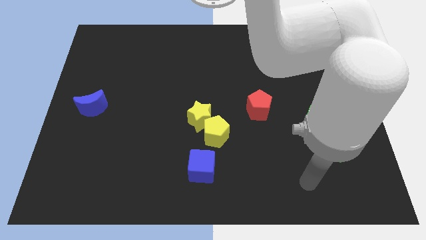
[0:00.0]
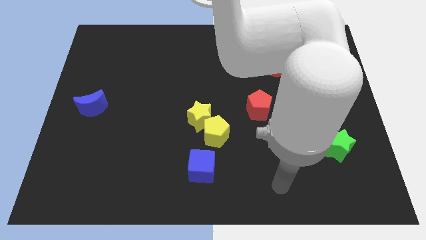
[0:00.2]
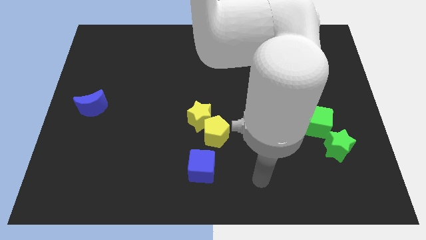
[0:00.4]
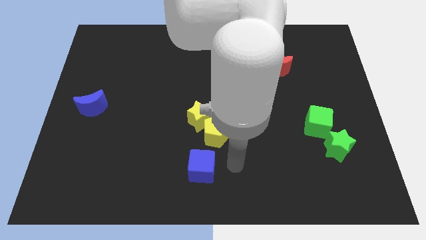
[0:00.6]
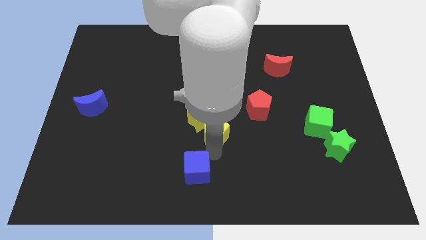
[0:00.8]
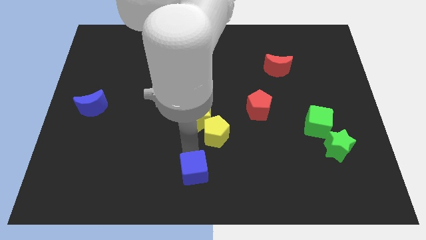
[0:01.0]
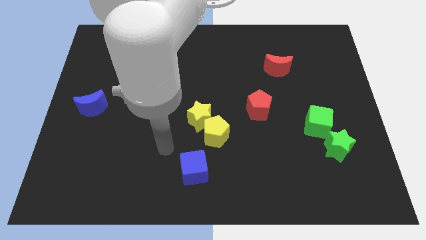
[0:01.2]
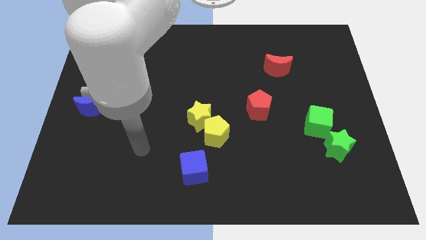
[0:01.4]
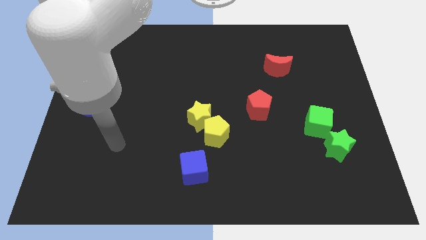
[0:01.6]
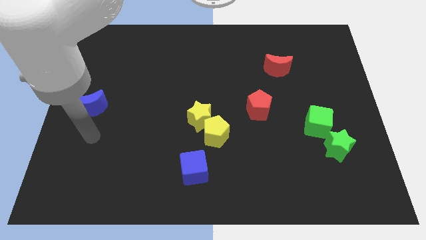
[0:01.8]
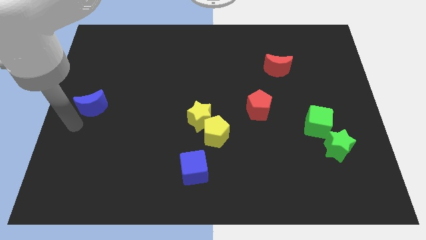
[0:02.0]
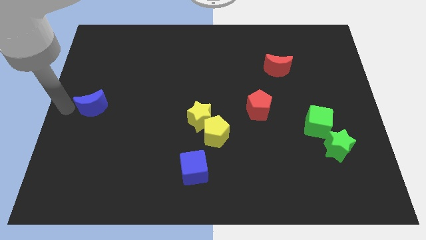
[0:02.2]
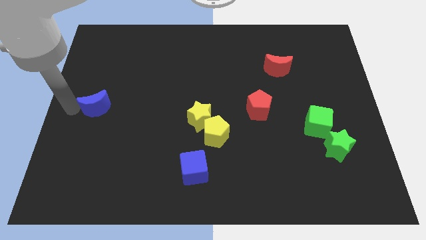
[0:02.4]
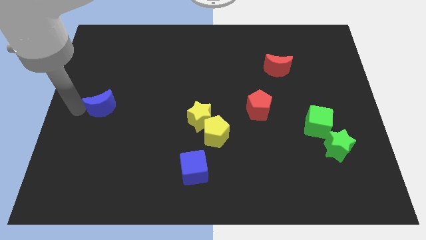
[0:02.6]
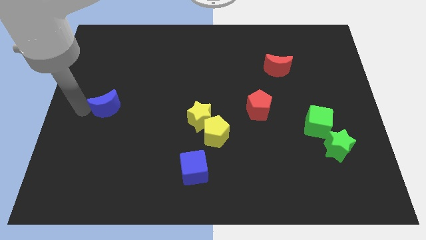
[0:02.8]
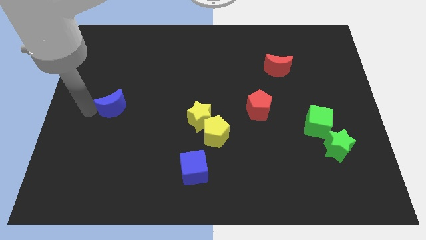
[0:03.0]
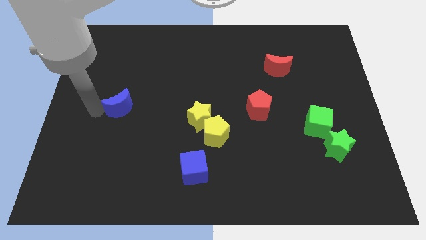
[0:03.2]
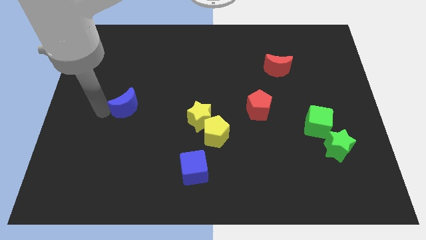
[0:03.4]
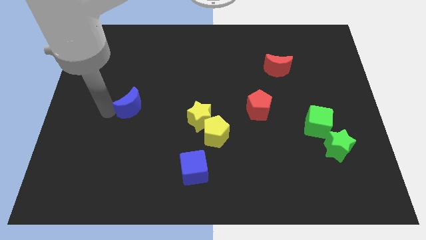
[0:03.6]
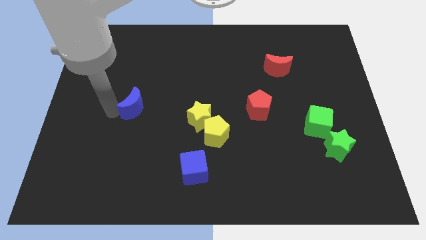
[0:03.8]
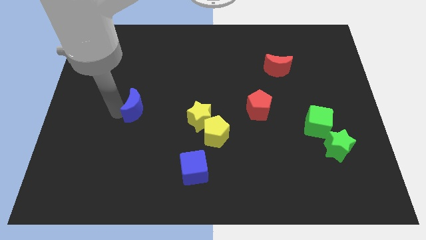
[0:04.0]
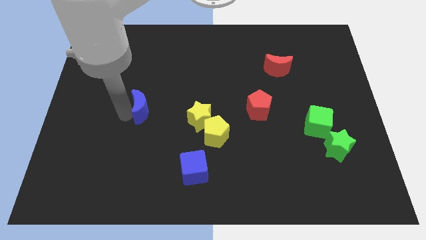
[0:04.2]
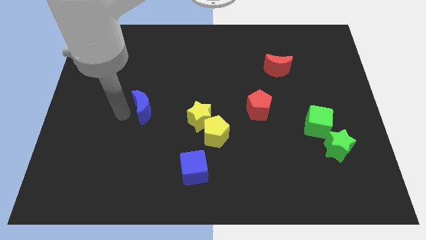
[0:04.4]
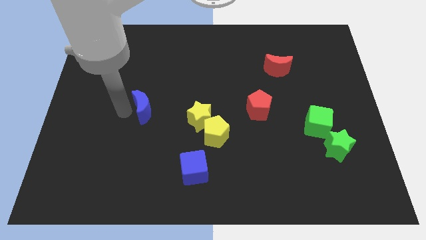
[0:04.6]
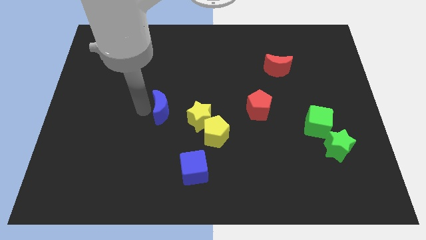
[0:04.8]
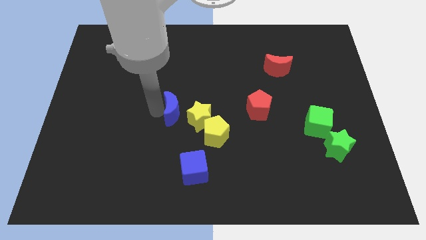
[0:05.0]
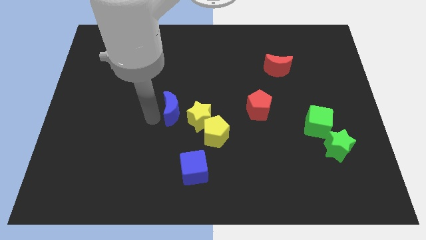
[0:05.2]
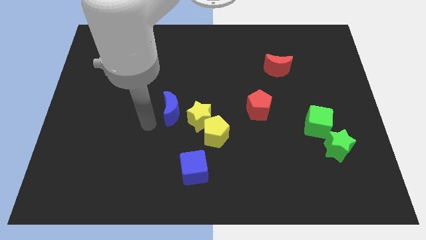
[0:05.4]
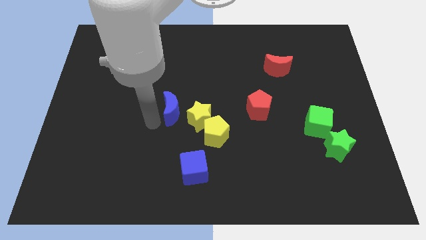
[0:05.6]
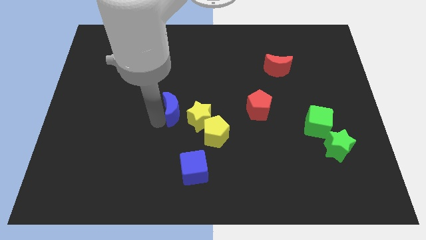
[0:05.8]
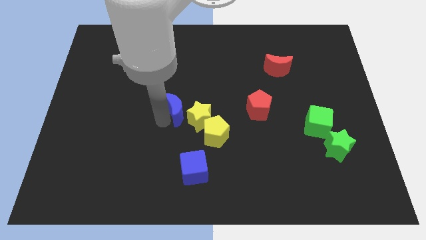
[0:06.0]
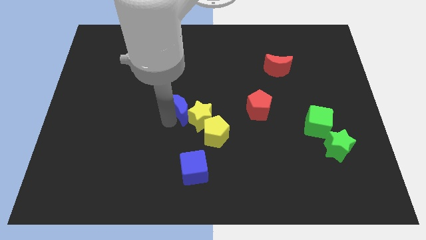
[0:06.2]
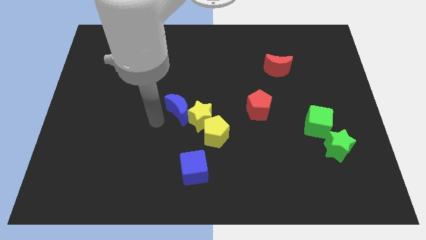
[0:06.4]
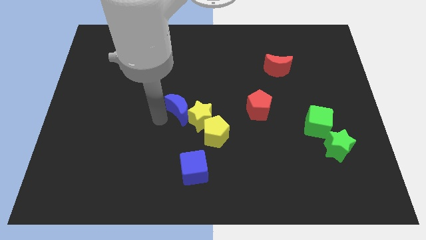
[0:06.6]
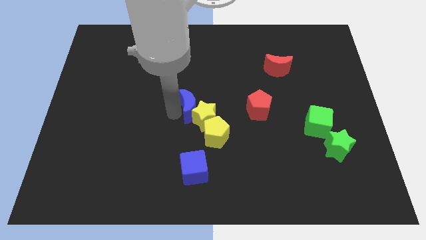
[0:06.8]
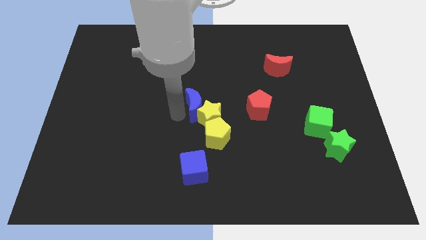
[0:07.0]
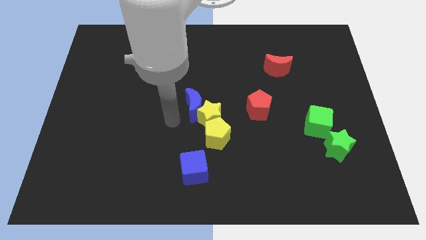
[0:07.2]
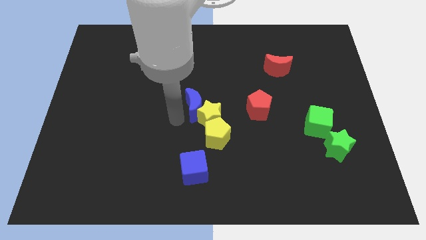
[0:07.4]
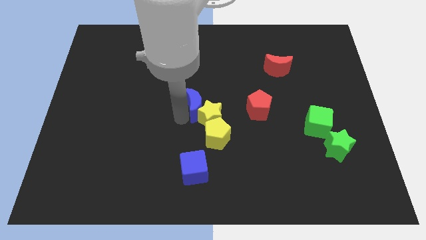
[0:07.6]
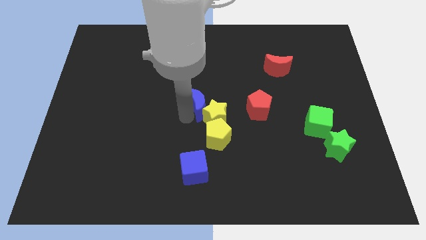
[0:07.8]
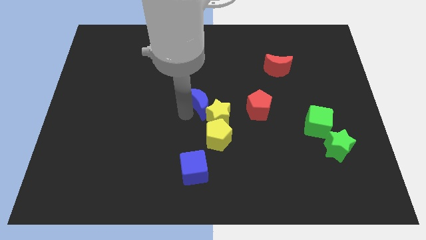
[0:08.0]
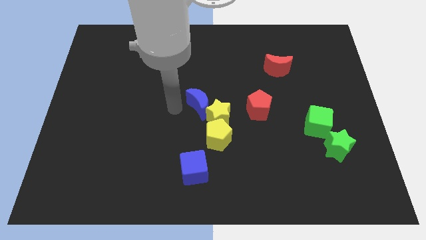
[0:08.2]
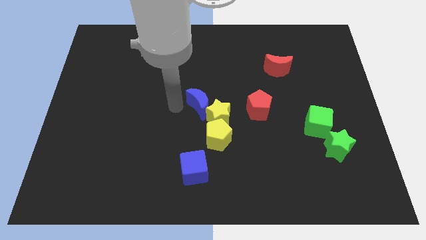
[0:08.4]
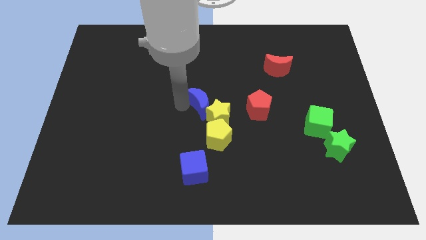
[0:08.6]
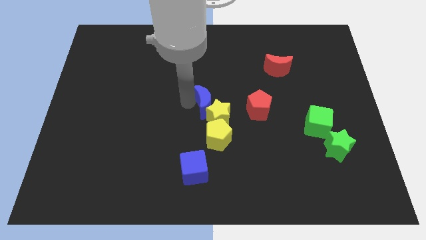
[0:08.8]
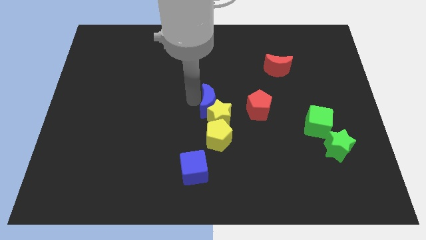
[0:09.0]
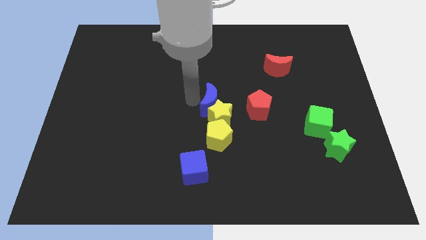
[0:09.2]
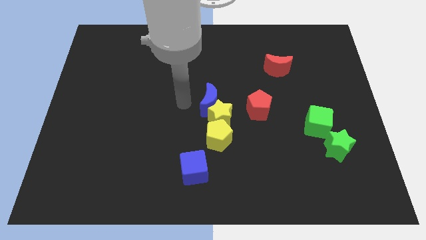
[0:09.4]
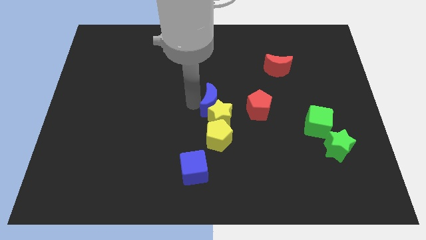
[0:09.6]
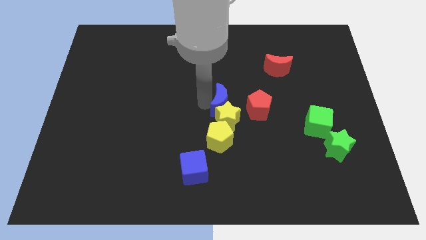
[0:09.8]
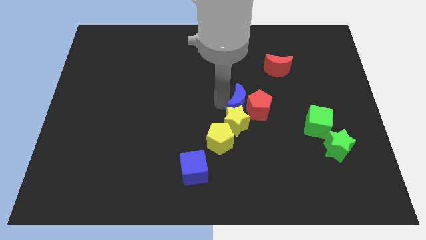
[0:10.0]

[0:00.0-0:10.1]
put the blue moon to the red pentagon

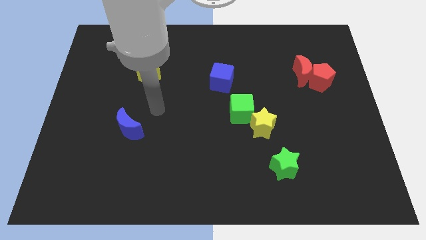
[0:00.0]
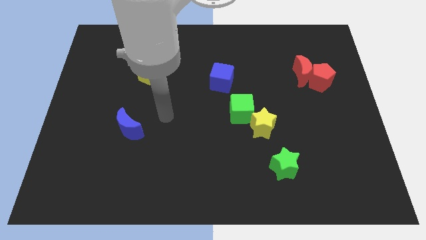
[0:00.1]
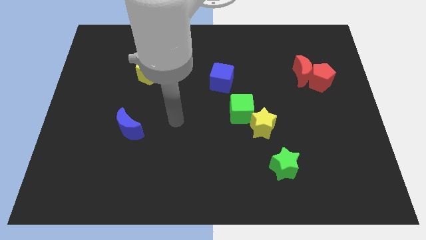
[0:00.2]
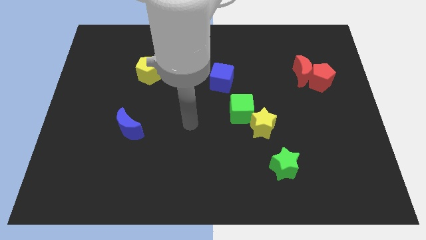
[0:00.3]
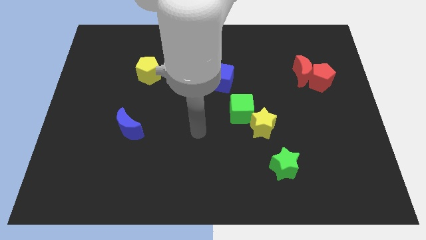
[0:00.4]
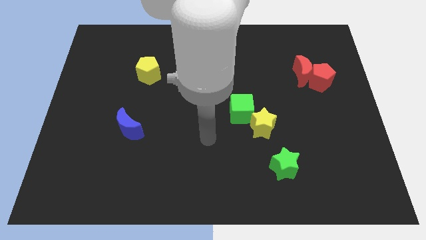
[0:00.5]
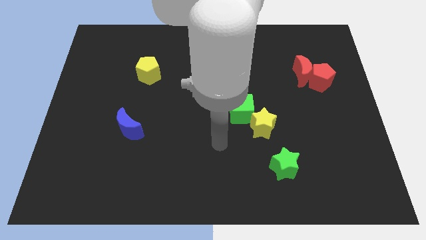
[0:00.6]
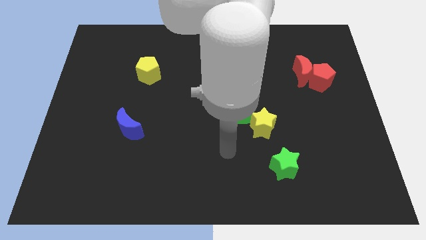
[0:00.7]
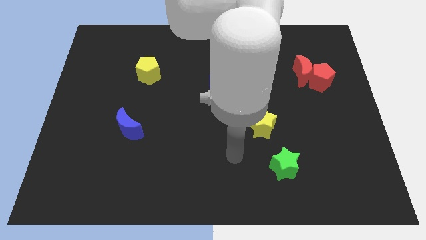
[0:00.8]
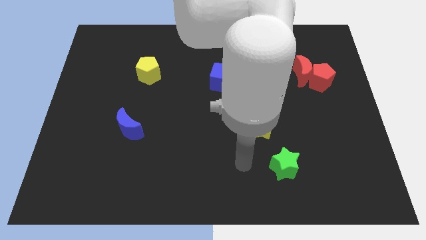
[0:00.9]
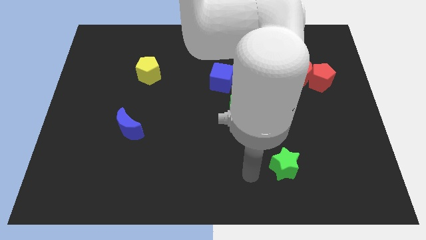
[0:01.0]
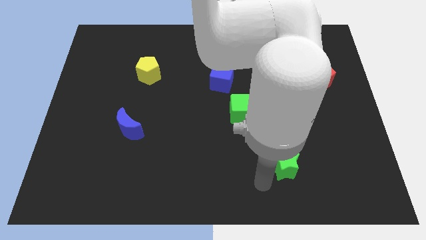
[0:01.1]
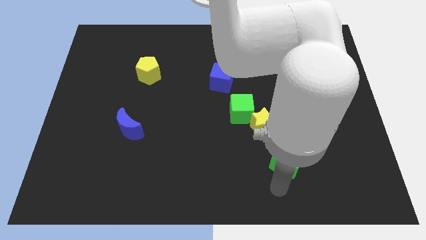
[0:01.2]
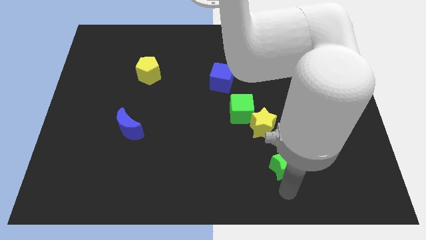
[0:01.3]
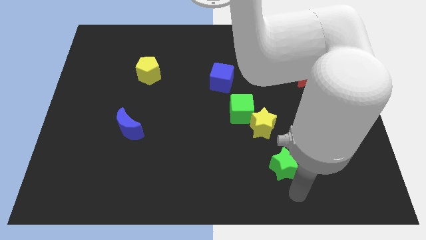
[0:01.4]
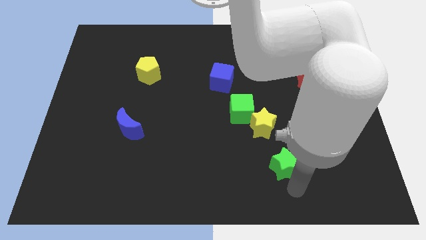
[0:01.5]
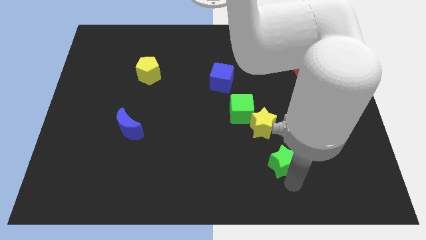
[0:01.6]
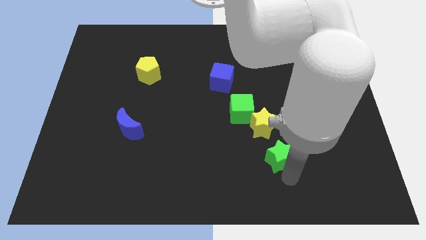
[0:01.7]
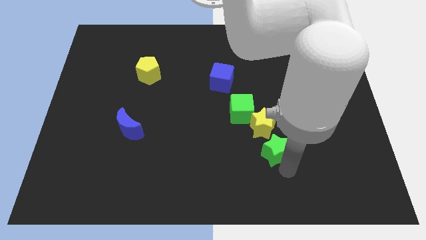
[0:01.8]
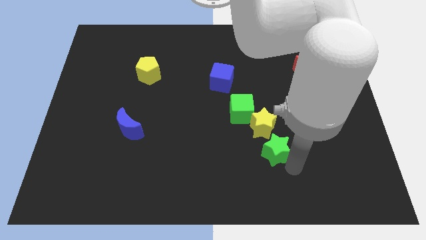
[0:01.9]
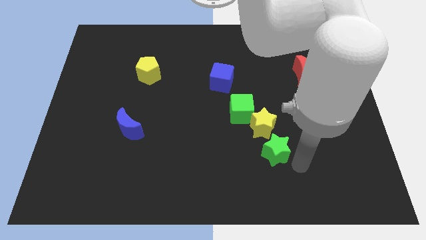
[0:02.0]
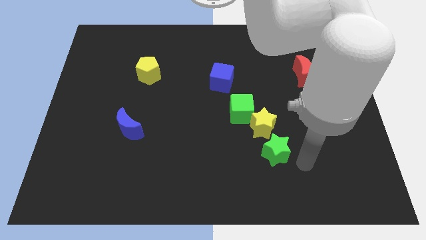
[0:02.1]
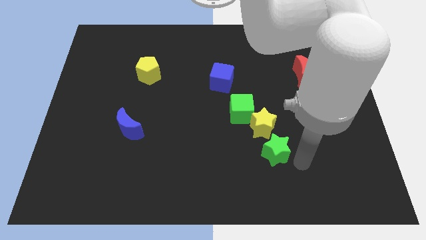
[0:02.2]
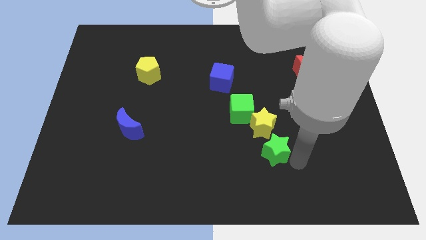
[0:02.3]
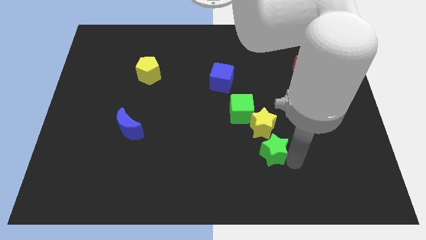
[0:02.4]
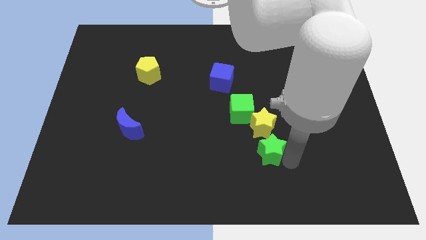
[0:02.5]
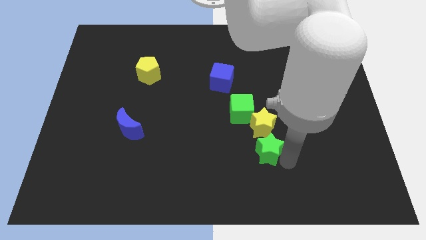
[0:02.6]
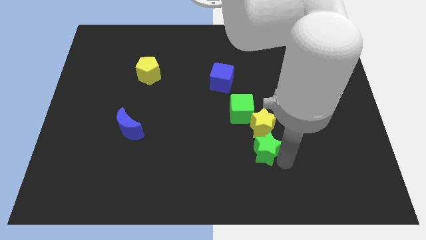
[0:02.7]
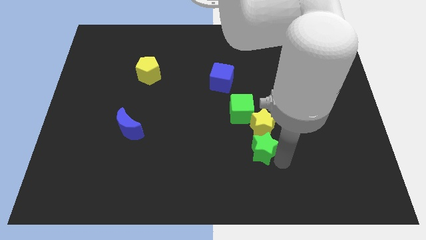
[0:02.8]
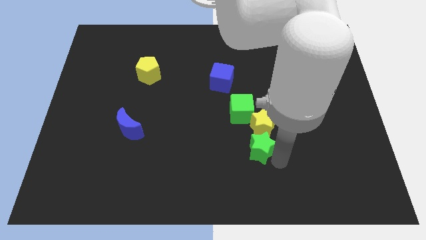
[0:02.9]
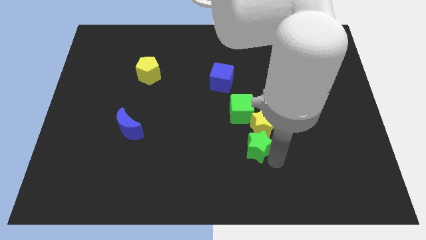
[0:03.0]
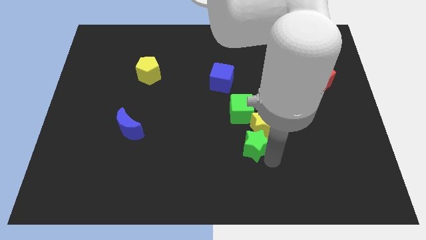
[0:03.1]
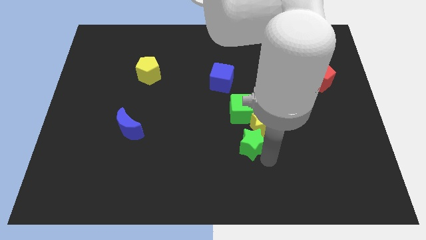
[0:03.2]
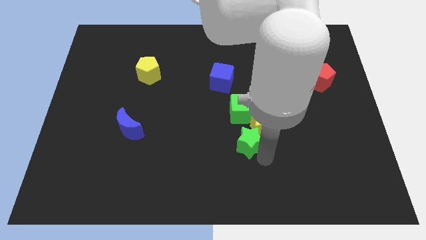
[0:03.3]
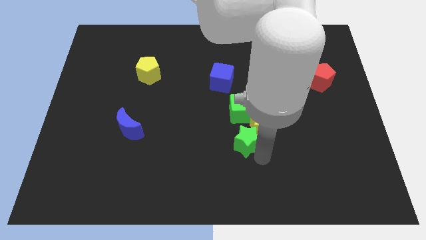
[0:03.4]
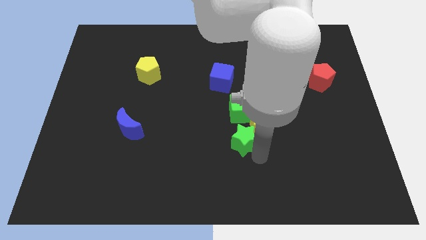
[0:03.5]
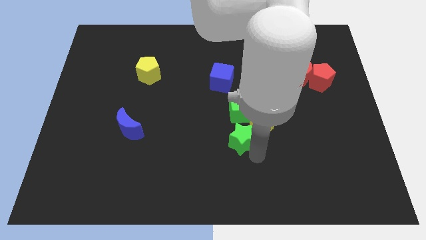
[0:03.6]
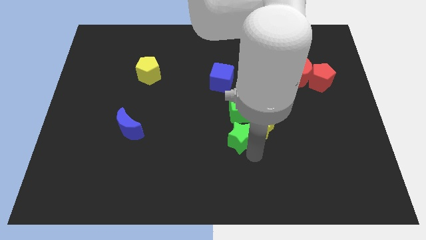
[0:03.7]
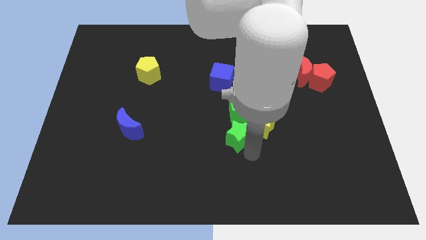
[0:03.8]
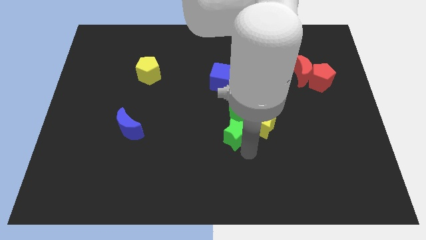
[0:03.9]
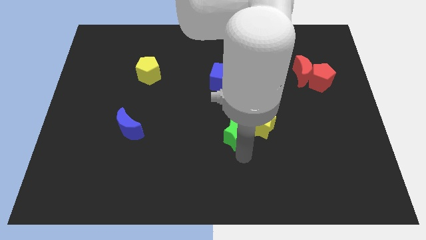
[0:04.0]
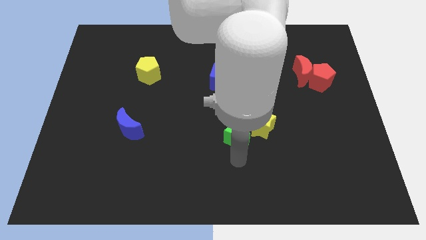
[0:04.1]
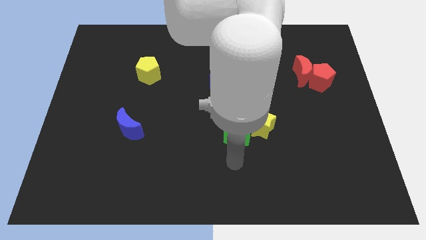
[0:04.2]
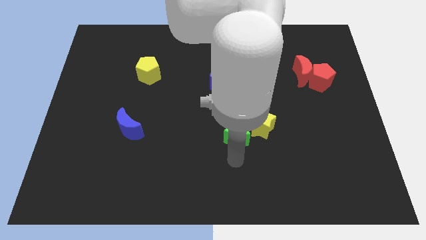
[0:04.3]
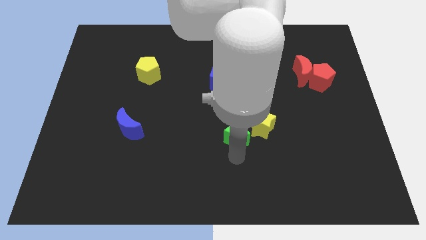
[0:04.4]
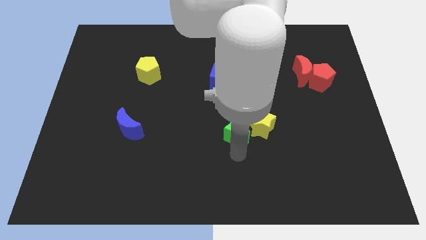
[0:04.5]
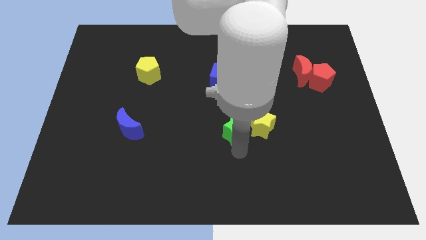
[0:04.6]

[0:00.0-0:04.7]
put the green star close to the green cube
